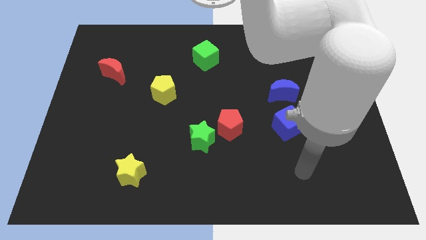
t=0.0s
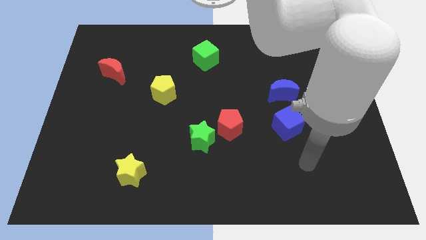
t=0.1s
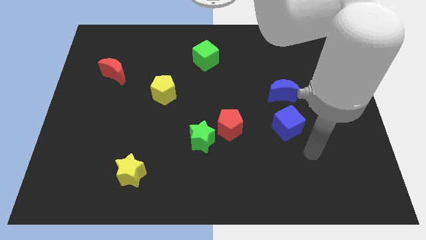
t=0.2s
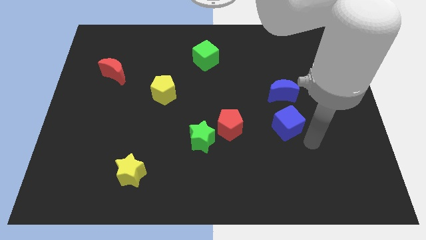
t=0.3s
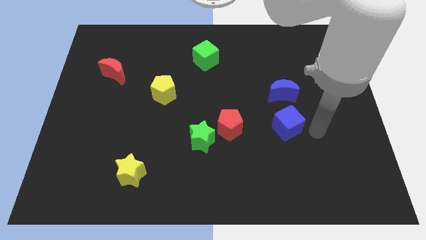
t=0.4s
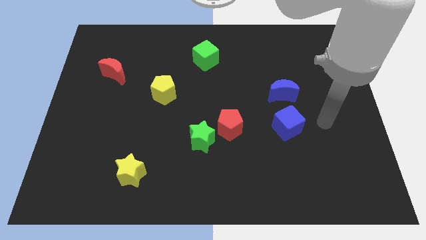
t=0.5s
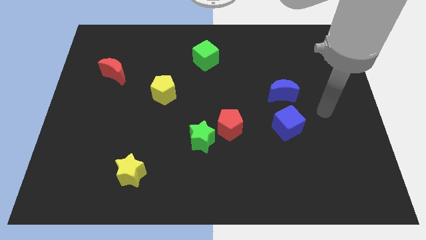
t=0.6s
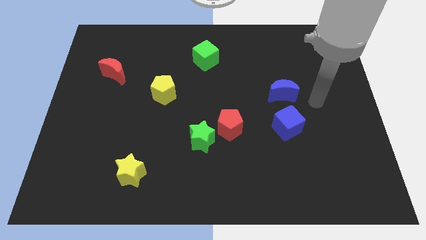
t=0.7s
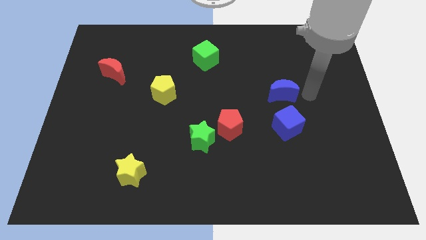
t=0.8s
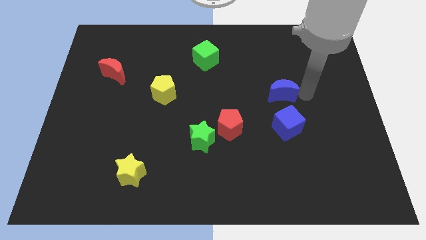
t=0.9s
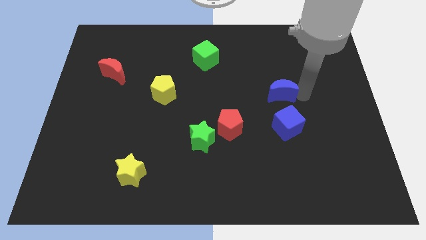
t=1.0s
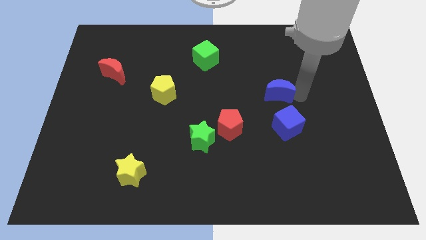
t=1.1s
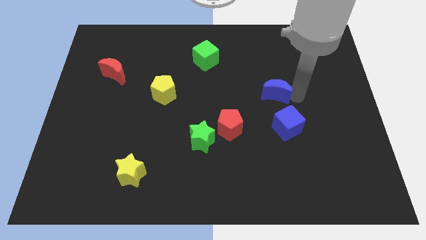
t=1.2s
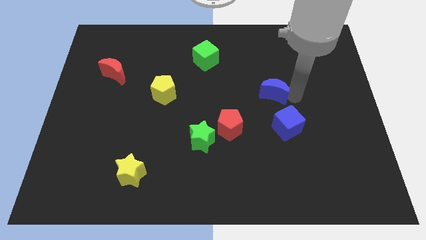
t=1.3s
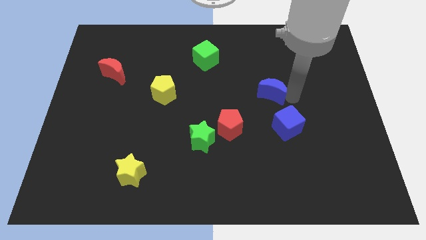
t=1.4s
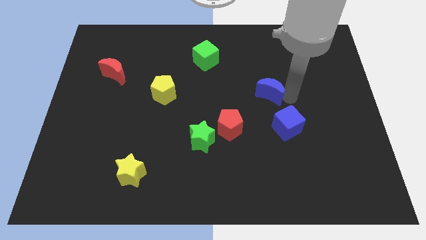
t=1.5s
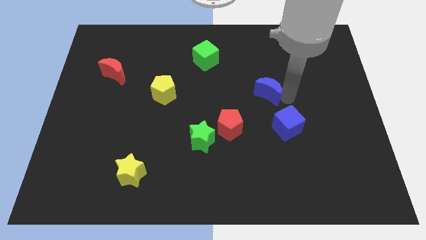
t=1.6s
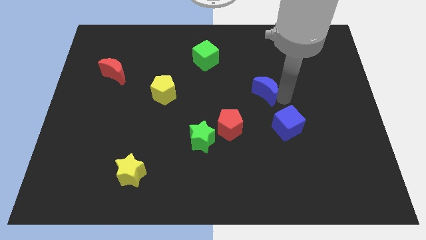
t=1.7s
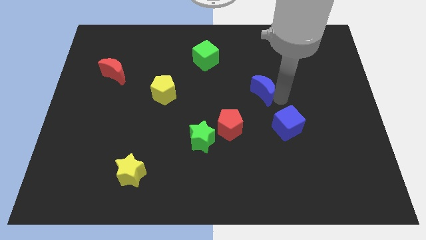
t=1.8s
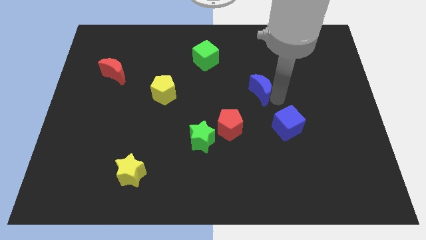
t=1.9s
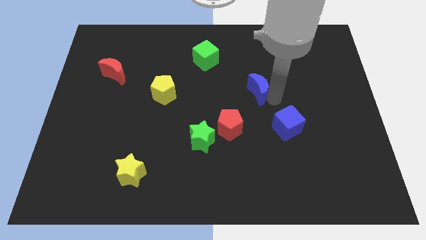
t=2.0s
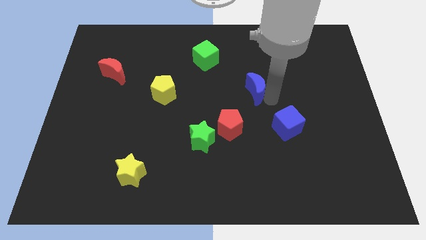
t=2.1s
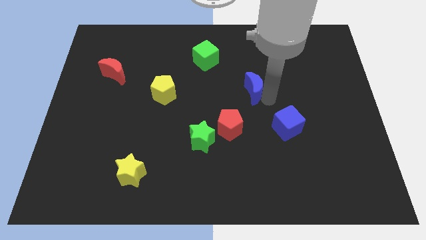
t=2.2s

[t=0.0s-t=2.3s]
push the blue moon left a little bit

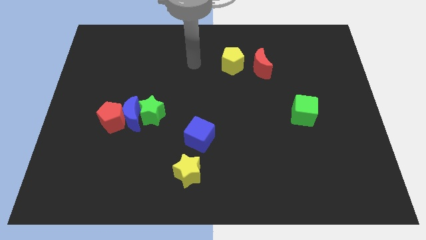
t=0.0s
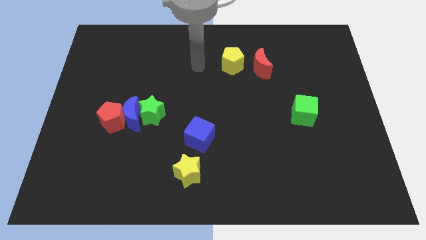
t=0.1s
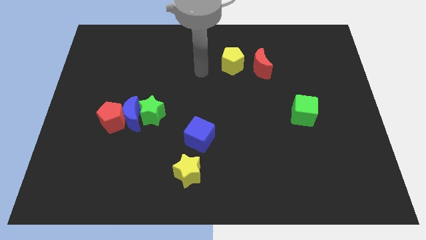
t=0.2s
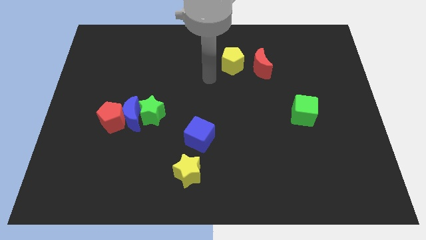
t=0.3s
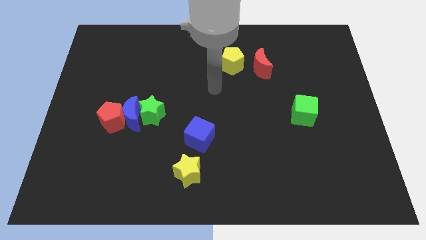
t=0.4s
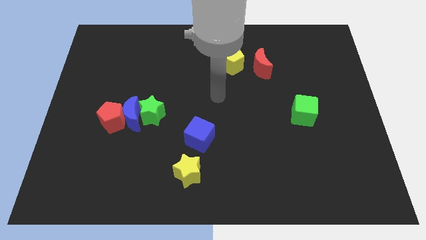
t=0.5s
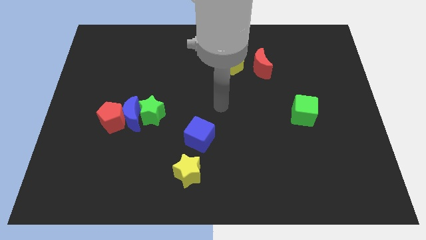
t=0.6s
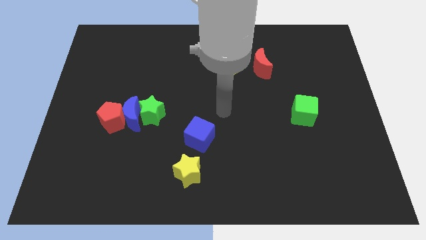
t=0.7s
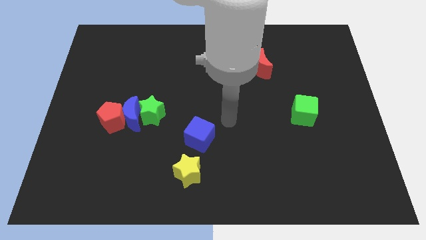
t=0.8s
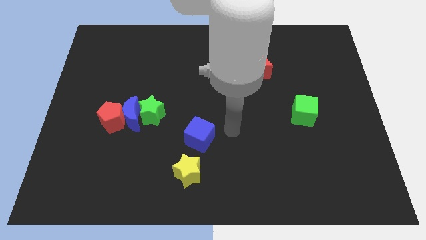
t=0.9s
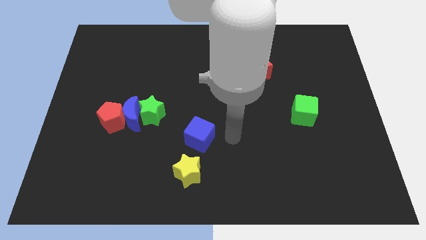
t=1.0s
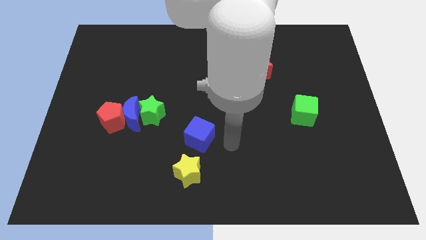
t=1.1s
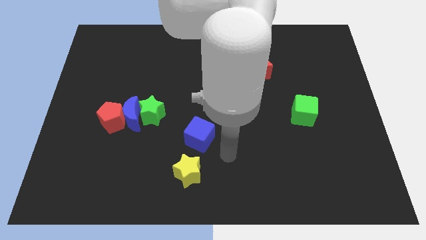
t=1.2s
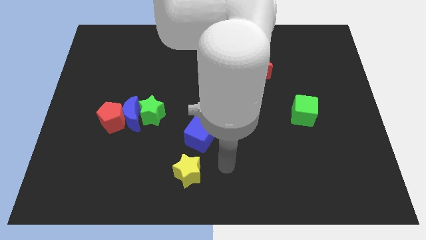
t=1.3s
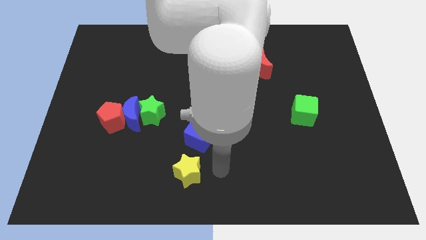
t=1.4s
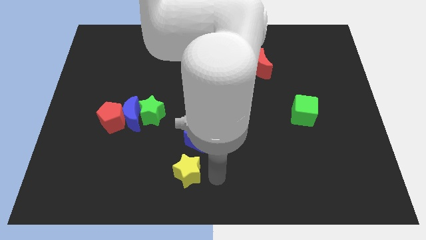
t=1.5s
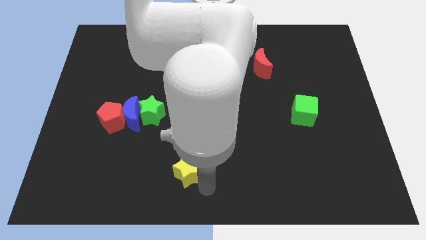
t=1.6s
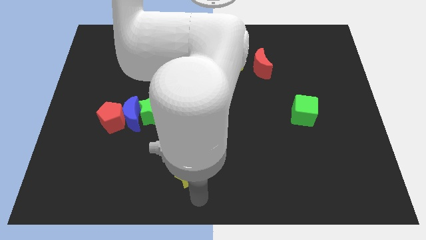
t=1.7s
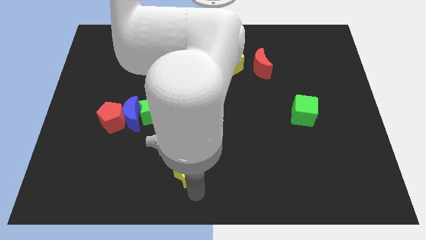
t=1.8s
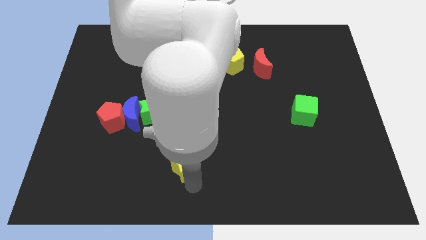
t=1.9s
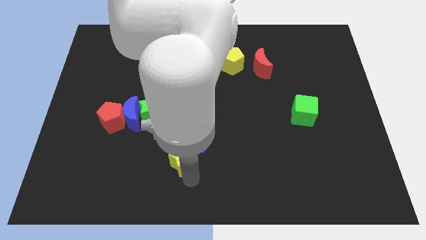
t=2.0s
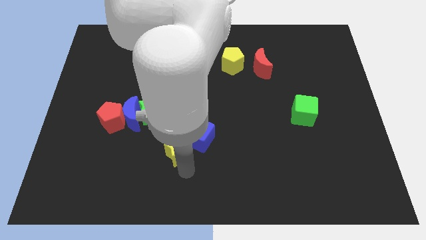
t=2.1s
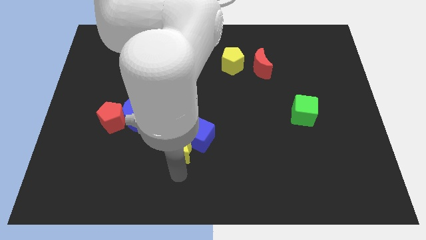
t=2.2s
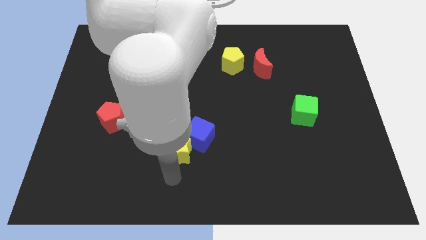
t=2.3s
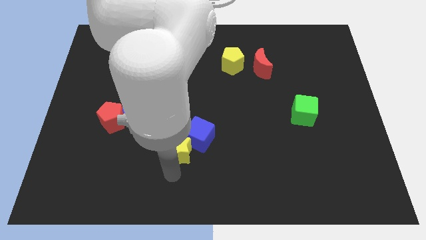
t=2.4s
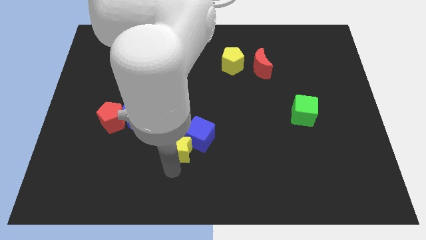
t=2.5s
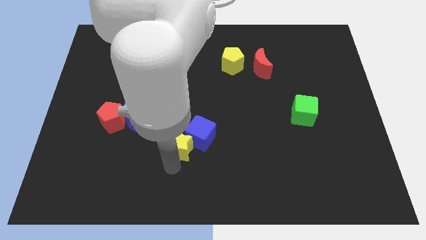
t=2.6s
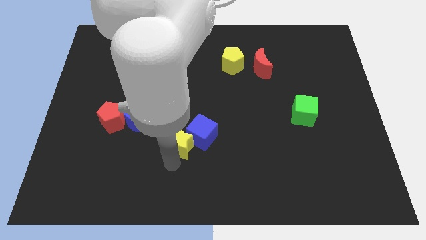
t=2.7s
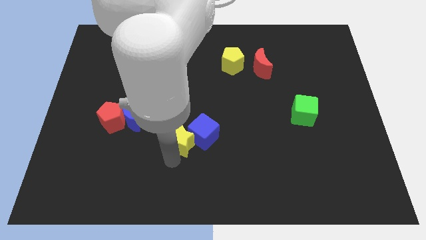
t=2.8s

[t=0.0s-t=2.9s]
slightly slide the yellow star up

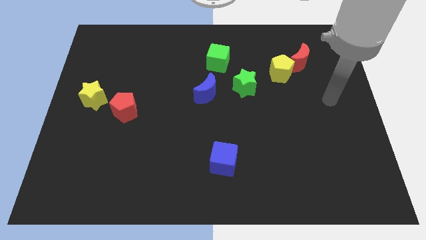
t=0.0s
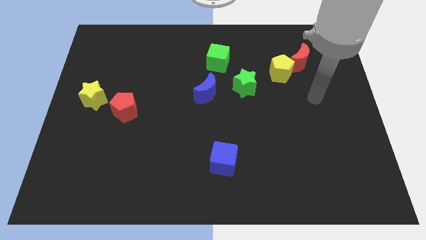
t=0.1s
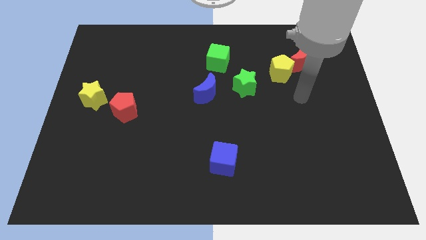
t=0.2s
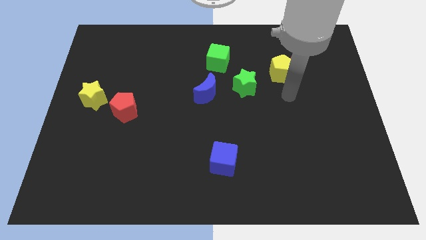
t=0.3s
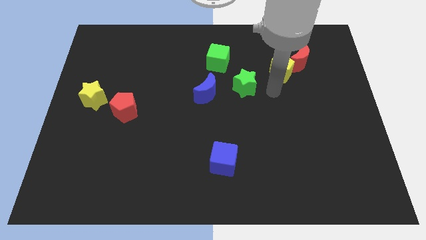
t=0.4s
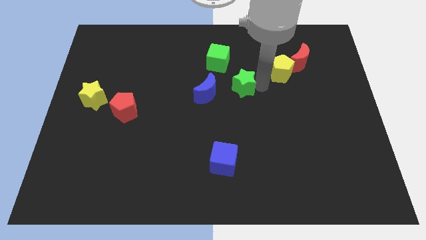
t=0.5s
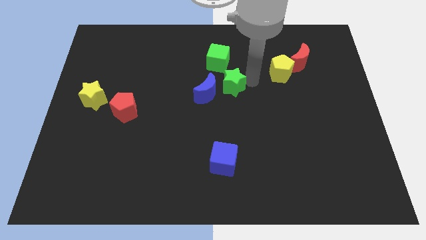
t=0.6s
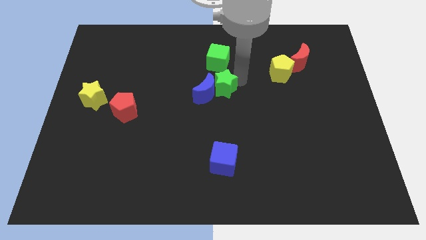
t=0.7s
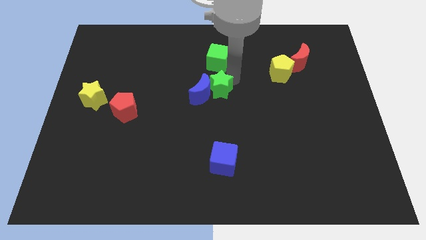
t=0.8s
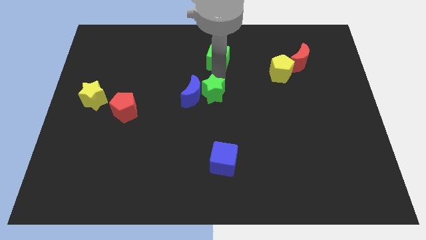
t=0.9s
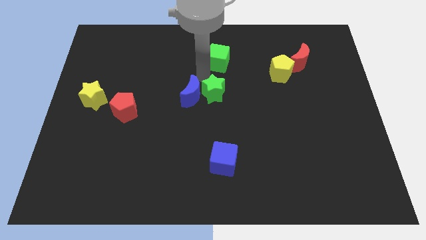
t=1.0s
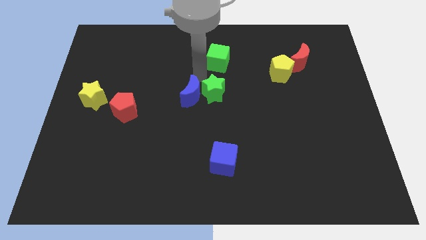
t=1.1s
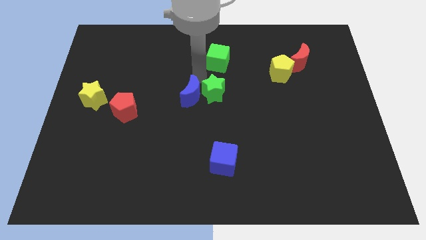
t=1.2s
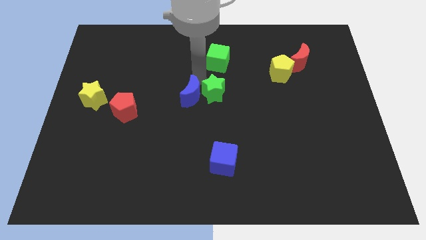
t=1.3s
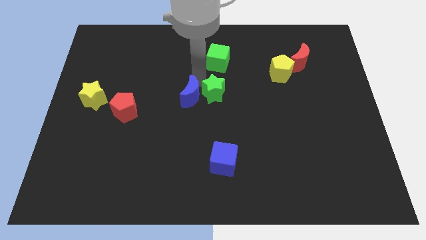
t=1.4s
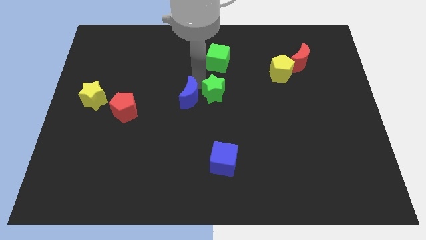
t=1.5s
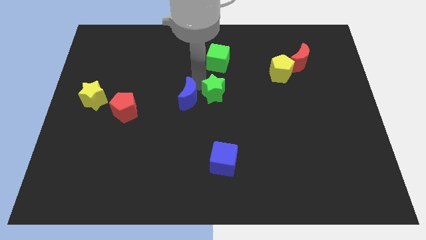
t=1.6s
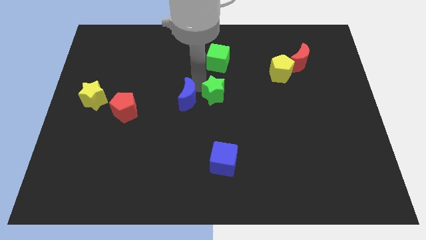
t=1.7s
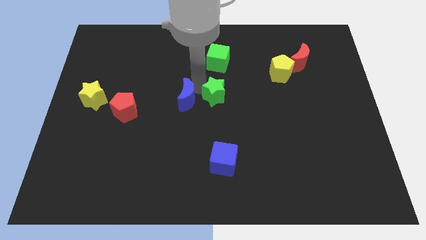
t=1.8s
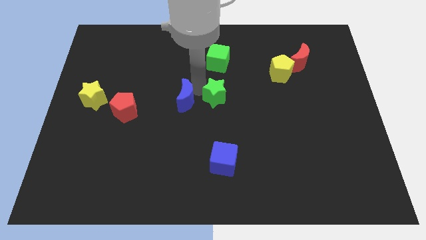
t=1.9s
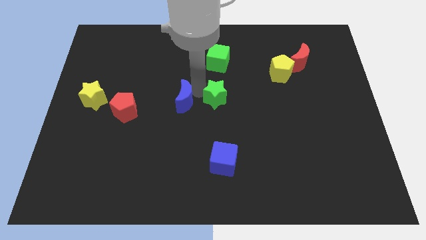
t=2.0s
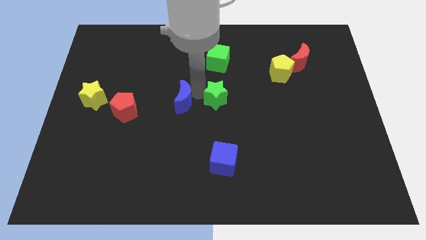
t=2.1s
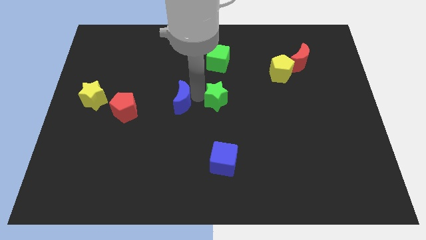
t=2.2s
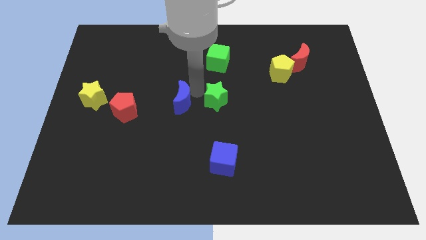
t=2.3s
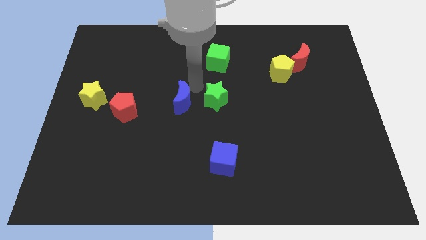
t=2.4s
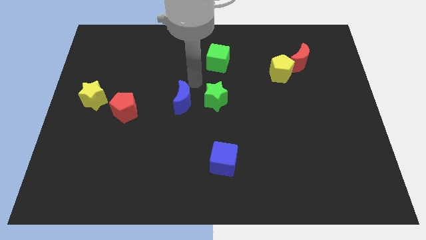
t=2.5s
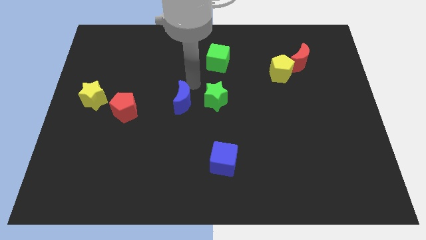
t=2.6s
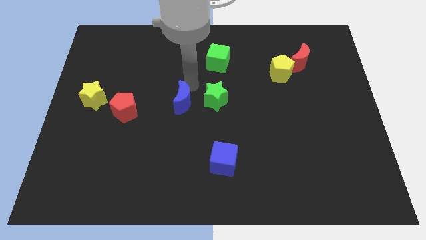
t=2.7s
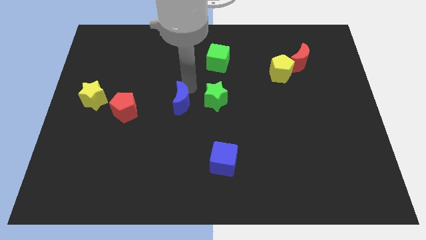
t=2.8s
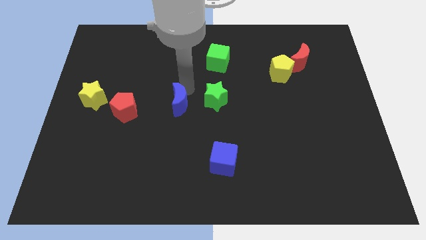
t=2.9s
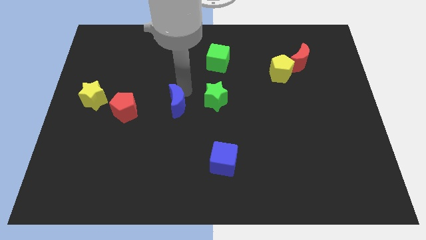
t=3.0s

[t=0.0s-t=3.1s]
slightly slide the blue moon downwards and then left
